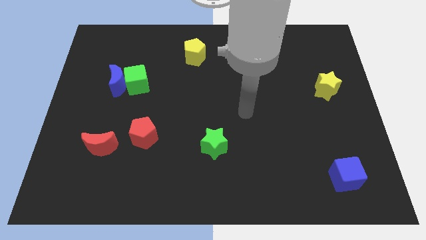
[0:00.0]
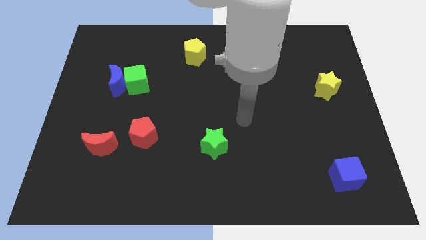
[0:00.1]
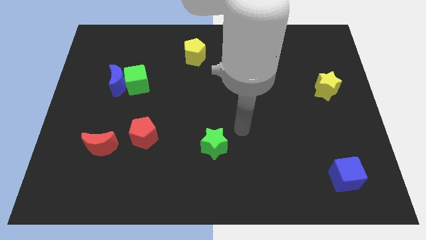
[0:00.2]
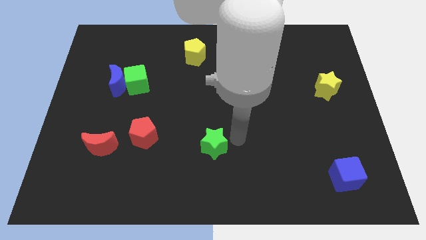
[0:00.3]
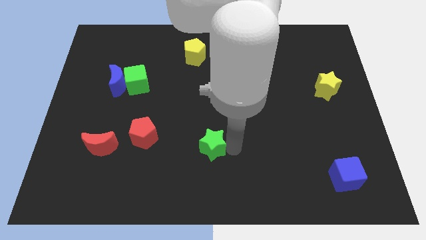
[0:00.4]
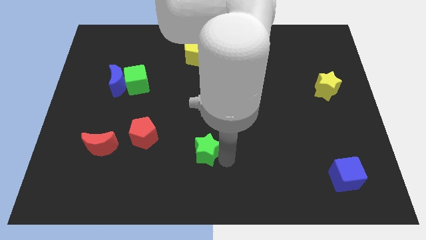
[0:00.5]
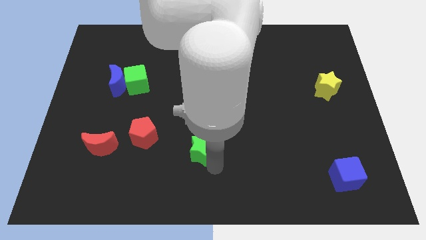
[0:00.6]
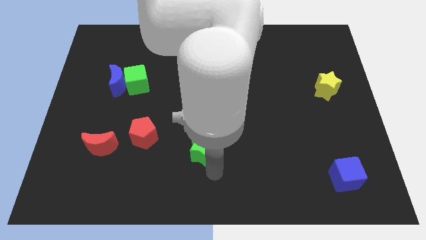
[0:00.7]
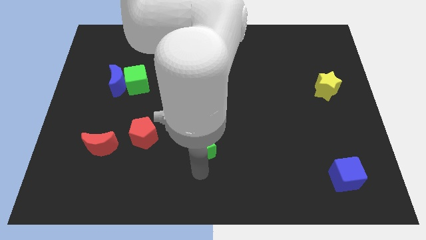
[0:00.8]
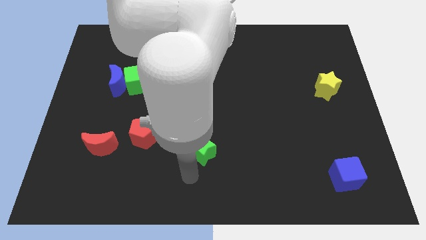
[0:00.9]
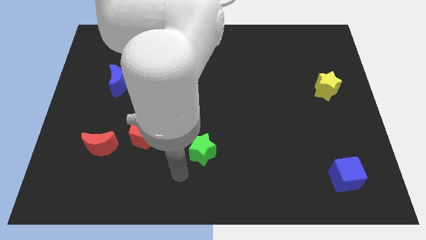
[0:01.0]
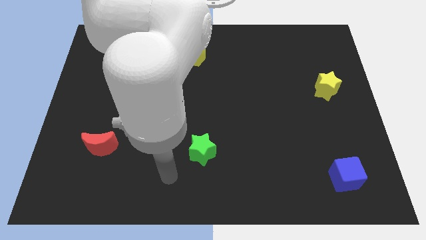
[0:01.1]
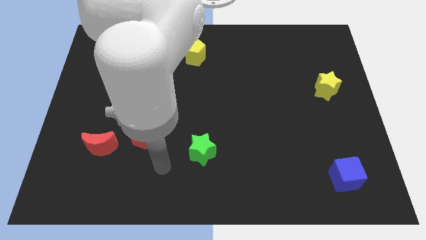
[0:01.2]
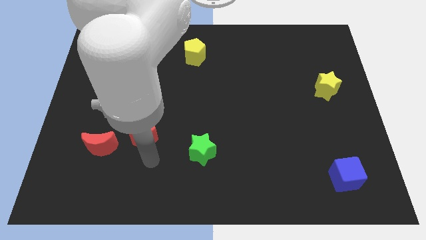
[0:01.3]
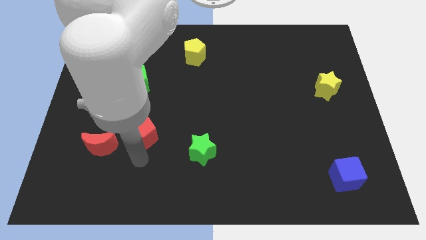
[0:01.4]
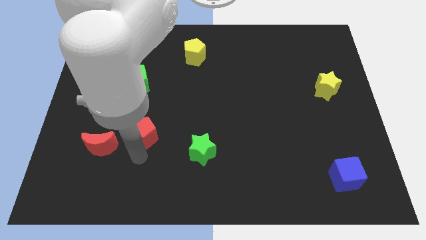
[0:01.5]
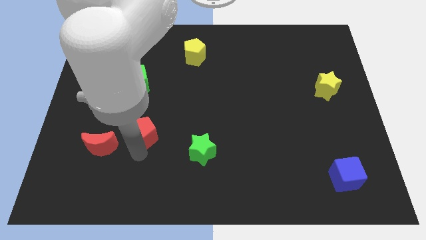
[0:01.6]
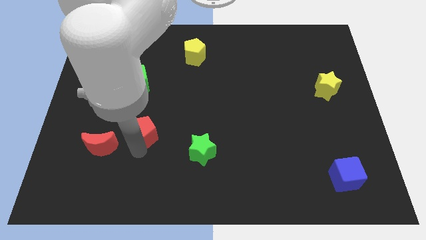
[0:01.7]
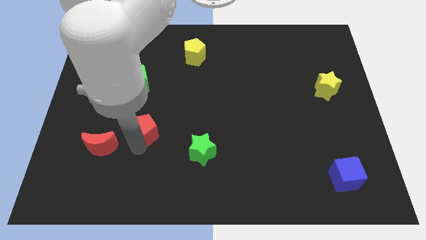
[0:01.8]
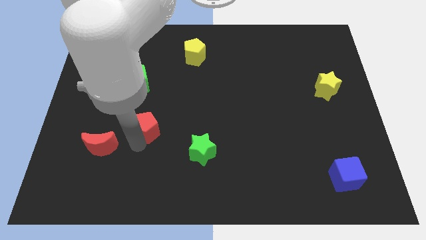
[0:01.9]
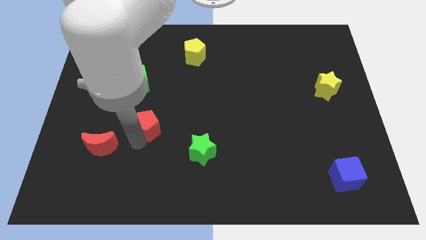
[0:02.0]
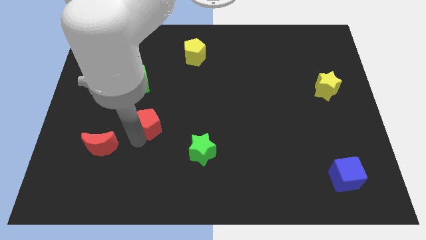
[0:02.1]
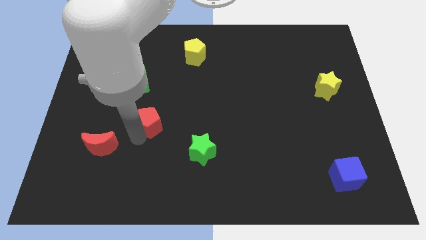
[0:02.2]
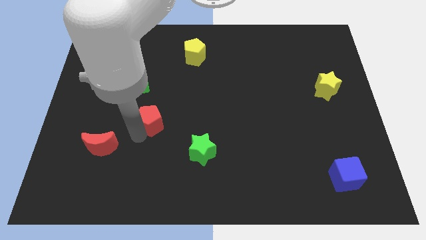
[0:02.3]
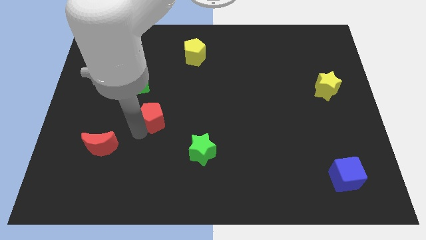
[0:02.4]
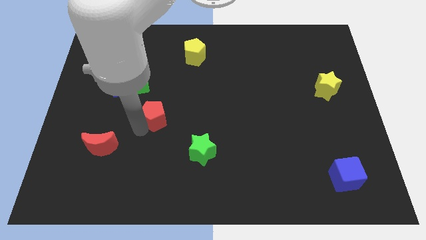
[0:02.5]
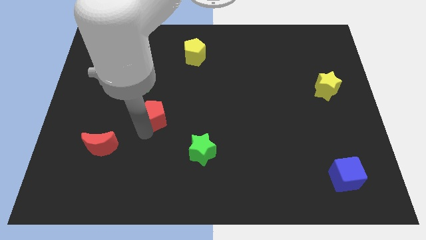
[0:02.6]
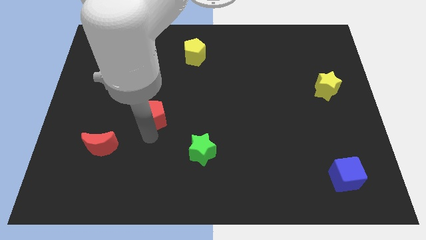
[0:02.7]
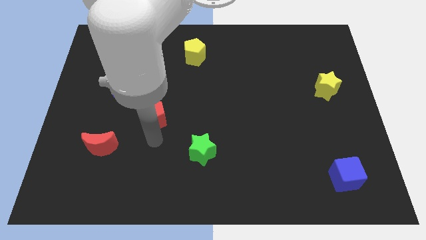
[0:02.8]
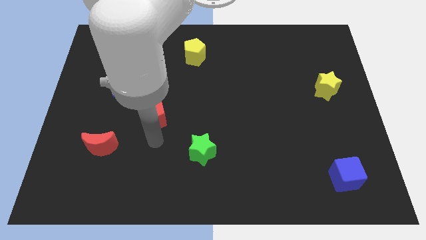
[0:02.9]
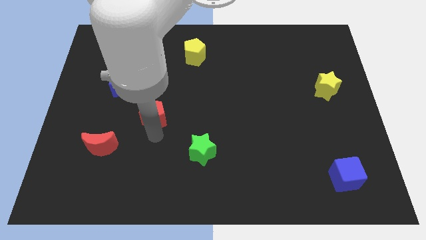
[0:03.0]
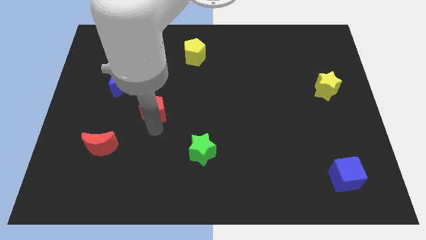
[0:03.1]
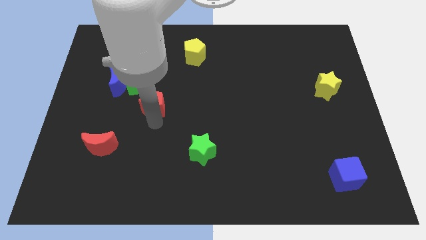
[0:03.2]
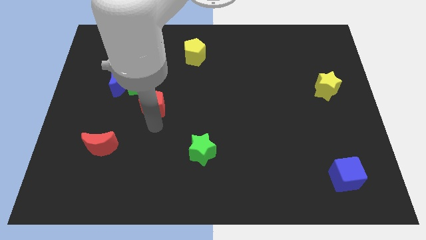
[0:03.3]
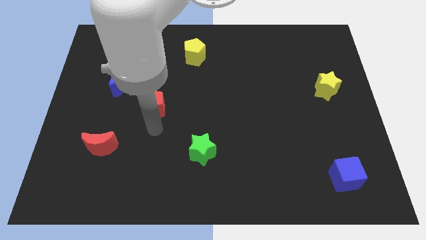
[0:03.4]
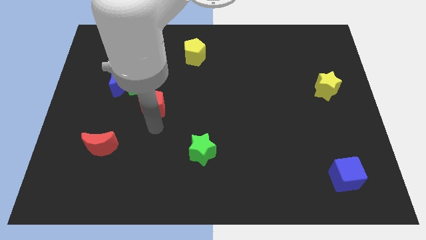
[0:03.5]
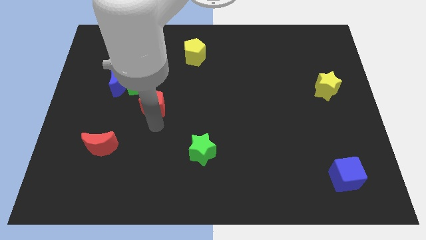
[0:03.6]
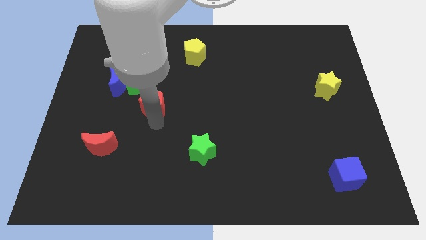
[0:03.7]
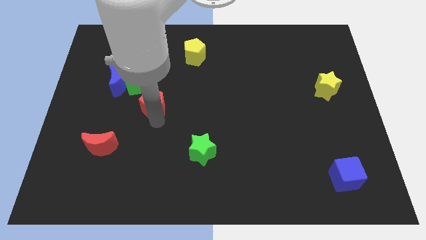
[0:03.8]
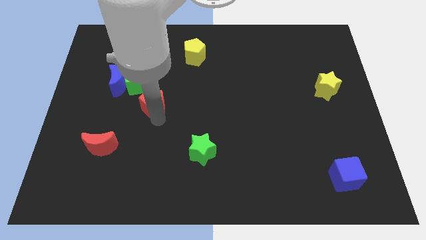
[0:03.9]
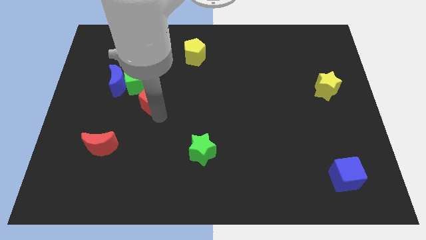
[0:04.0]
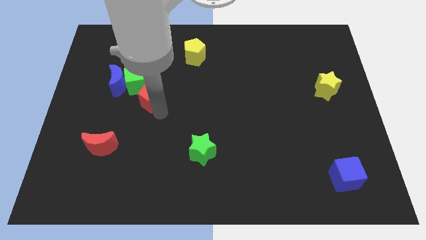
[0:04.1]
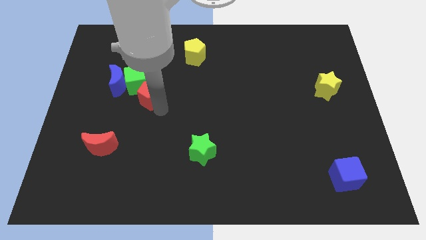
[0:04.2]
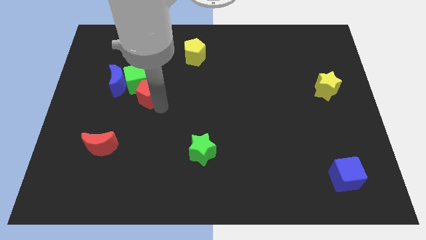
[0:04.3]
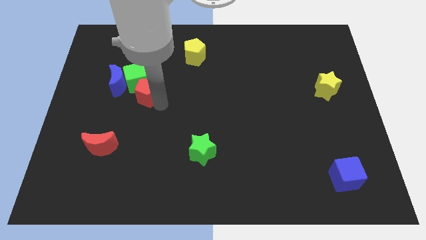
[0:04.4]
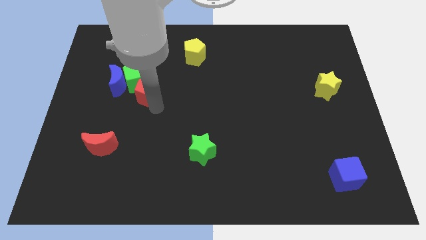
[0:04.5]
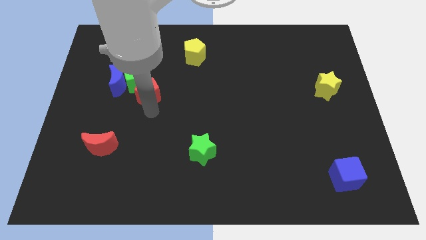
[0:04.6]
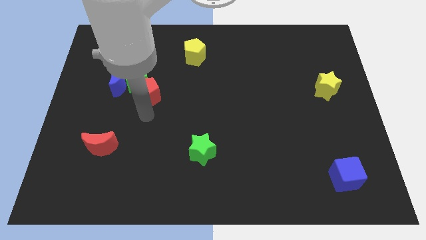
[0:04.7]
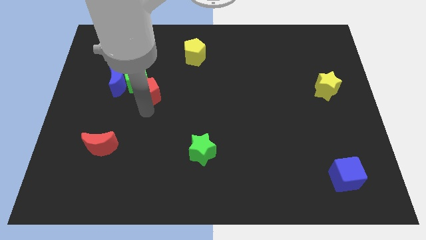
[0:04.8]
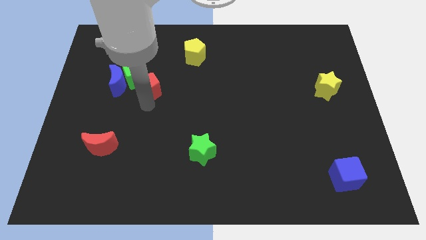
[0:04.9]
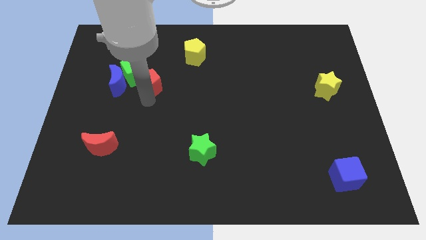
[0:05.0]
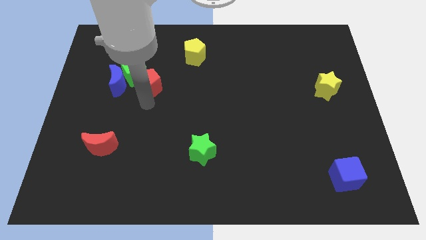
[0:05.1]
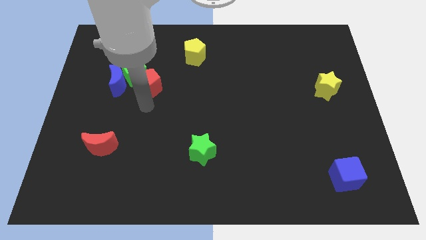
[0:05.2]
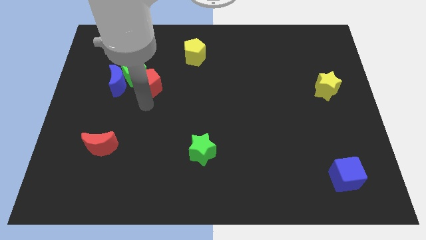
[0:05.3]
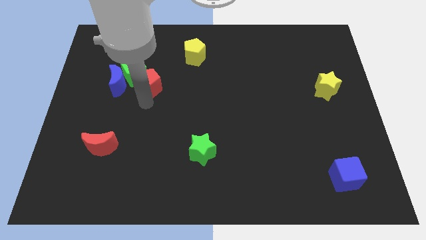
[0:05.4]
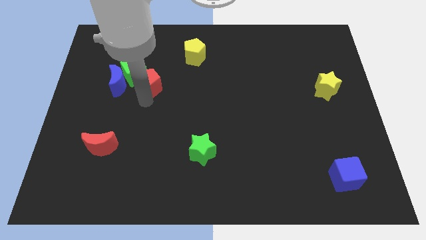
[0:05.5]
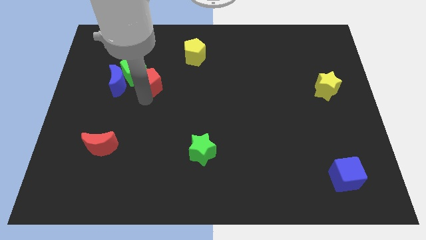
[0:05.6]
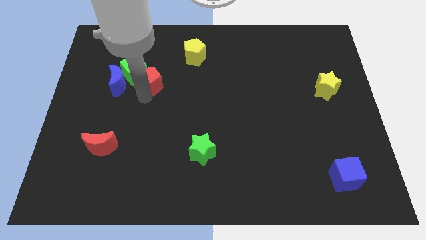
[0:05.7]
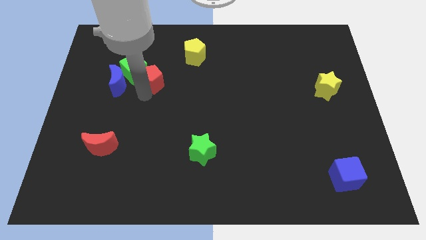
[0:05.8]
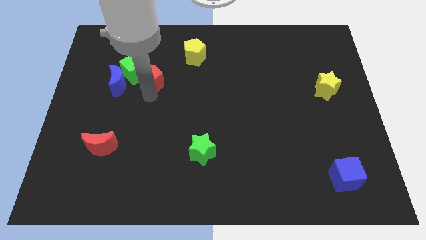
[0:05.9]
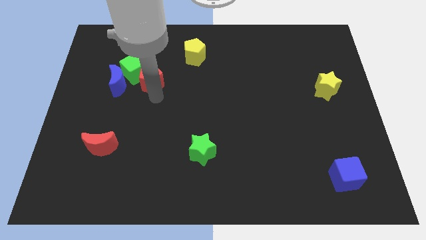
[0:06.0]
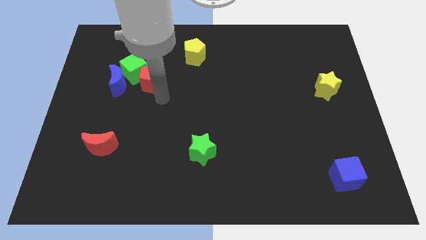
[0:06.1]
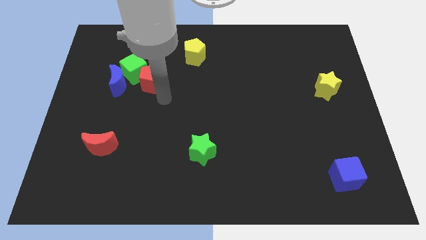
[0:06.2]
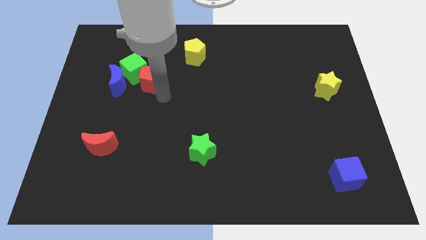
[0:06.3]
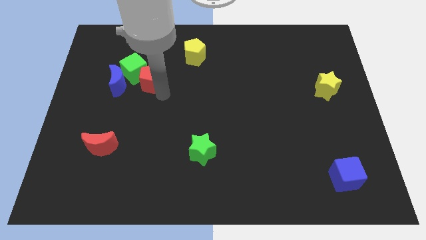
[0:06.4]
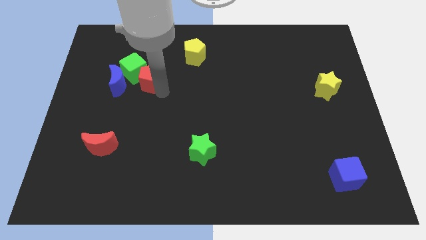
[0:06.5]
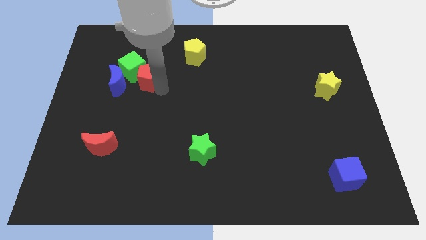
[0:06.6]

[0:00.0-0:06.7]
slide the red pentagon diagonally up and to the right of the blue moon

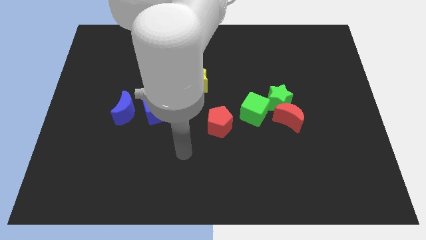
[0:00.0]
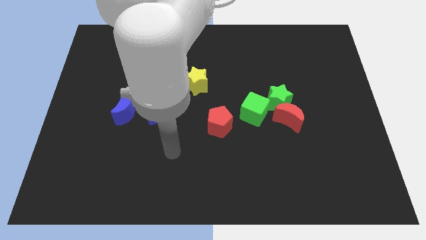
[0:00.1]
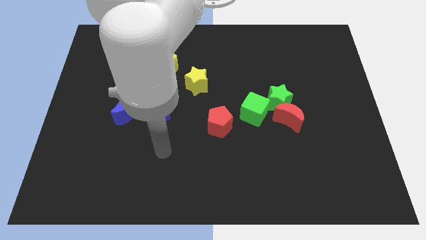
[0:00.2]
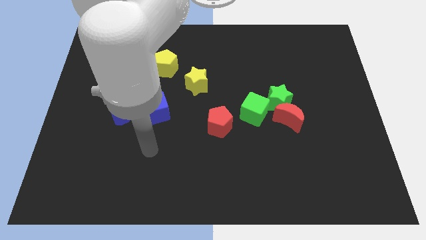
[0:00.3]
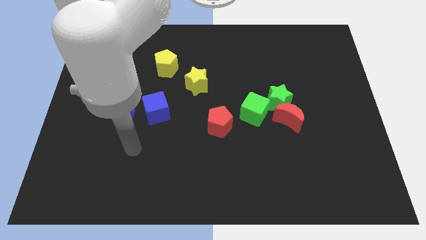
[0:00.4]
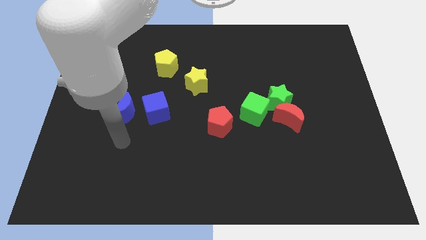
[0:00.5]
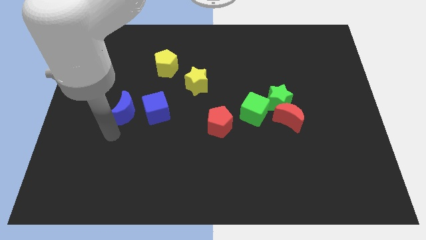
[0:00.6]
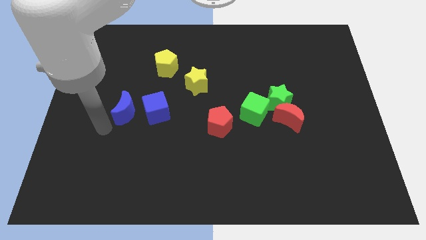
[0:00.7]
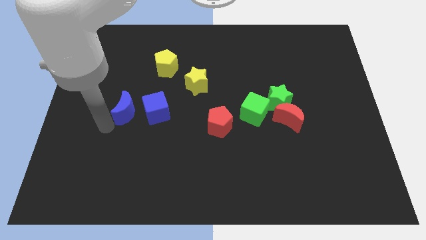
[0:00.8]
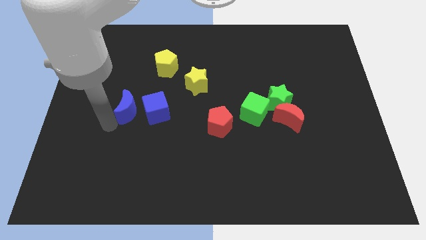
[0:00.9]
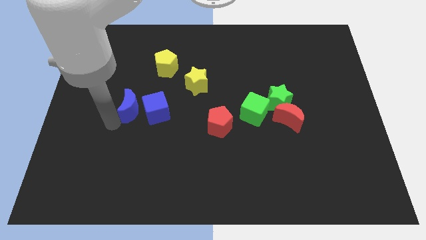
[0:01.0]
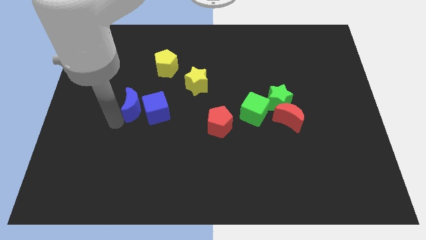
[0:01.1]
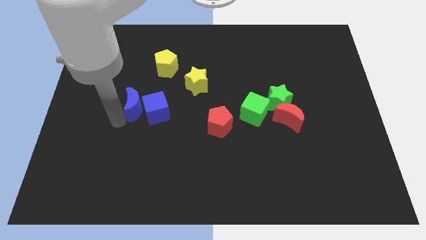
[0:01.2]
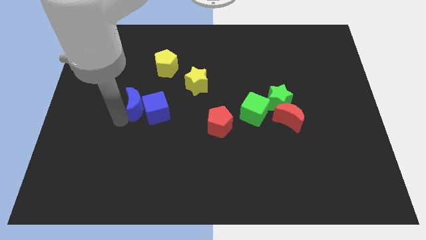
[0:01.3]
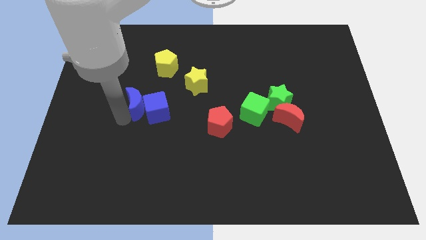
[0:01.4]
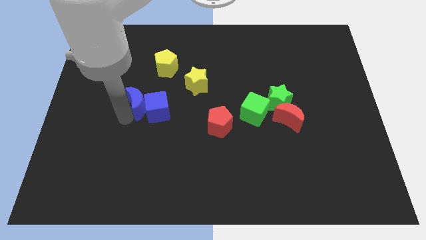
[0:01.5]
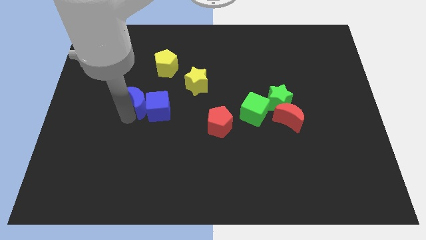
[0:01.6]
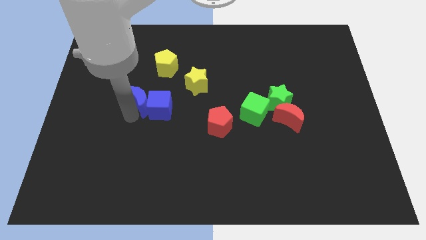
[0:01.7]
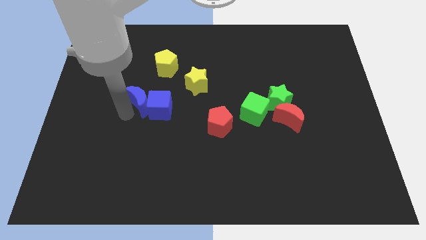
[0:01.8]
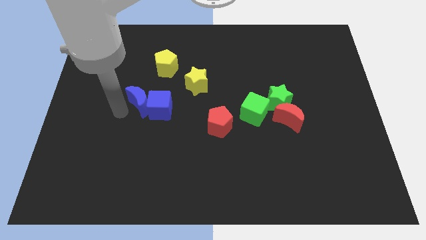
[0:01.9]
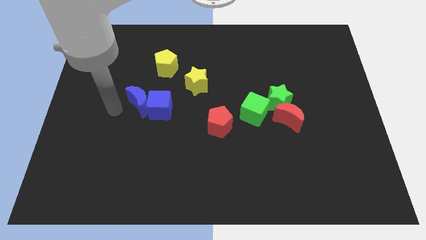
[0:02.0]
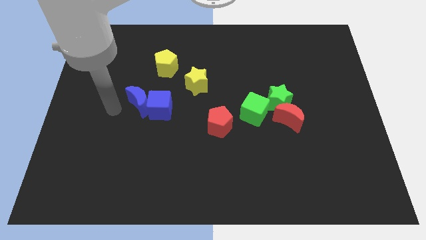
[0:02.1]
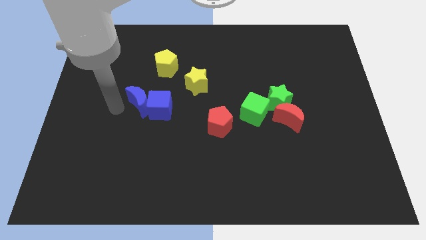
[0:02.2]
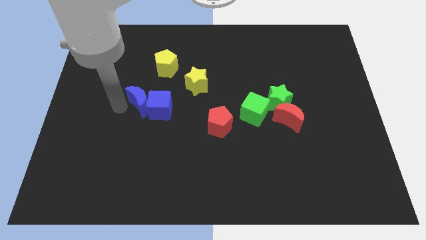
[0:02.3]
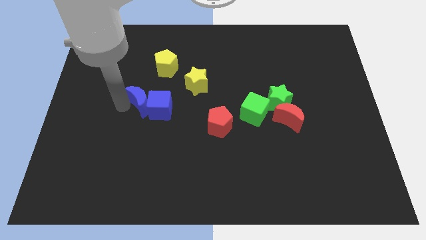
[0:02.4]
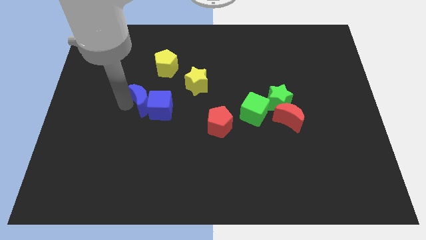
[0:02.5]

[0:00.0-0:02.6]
move the blue moon below the yellow pentagon
